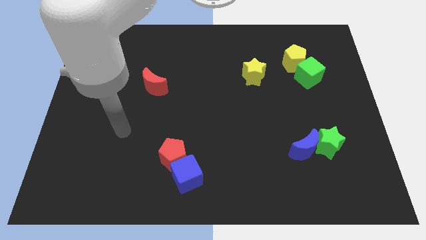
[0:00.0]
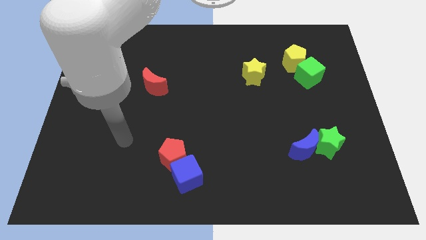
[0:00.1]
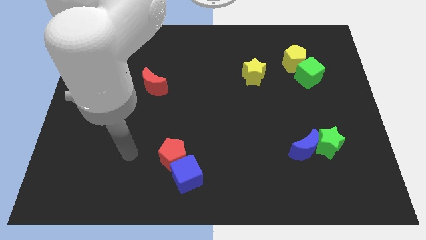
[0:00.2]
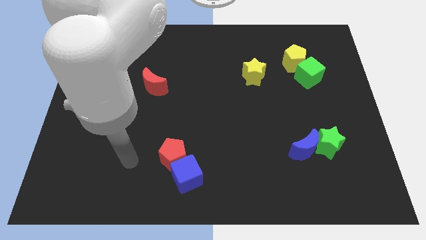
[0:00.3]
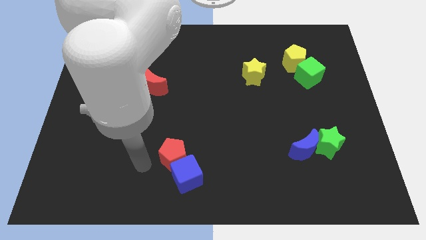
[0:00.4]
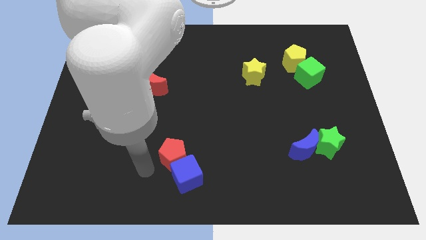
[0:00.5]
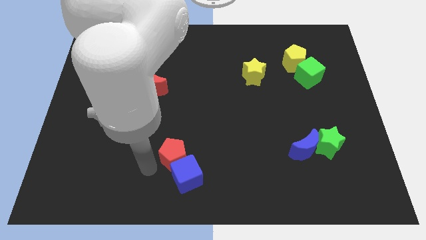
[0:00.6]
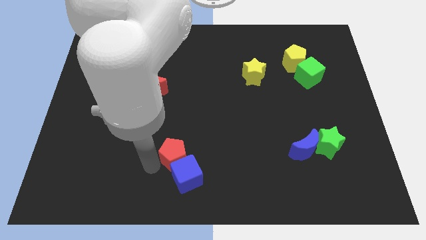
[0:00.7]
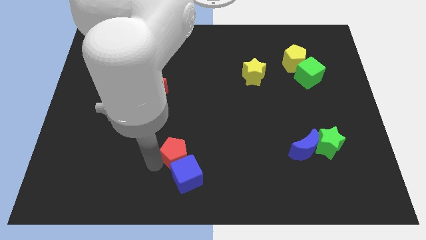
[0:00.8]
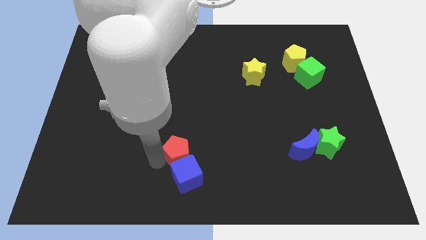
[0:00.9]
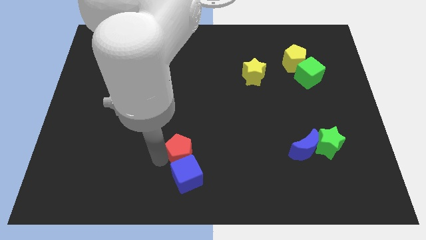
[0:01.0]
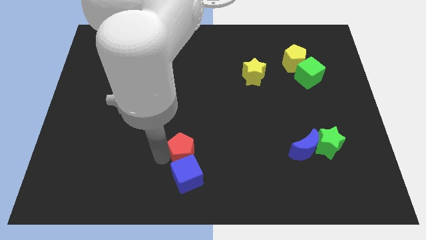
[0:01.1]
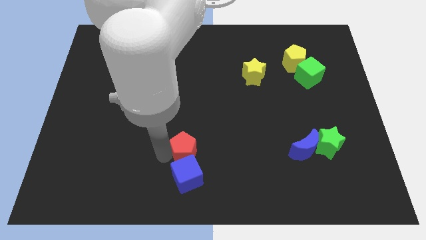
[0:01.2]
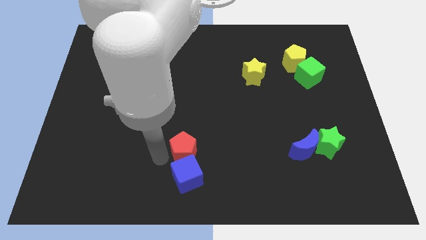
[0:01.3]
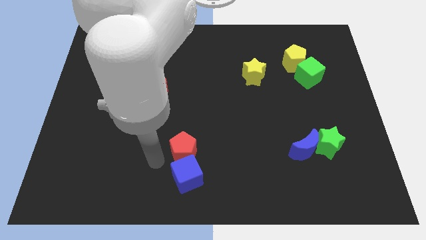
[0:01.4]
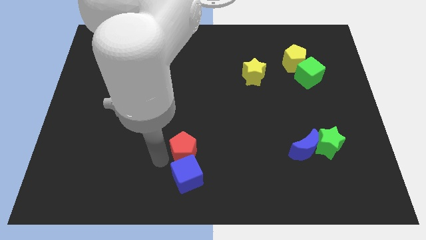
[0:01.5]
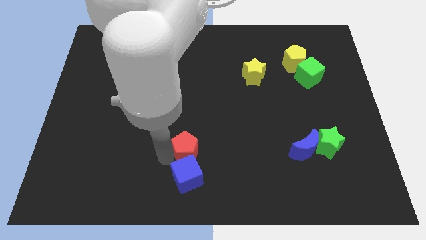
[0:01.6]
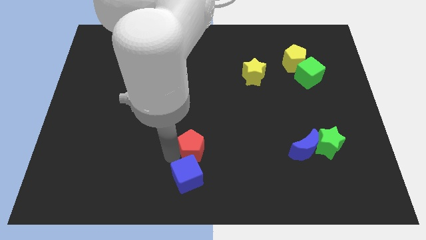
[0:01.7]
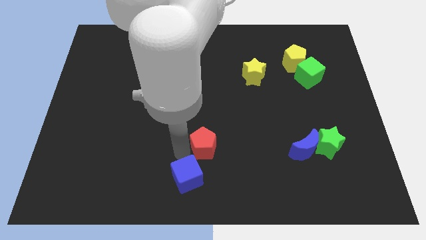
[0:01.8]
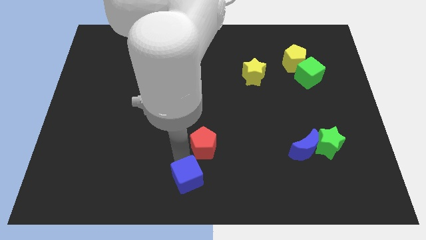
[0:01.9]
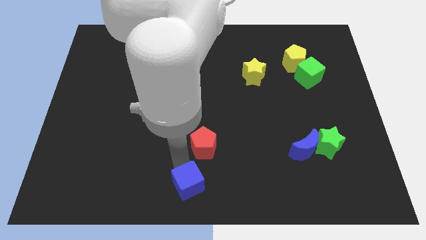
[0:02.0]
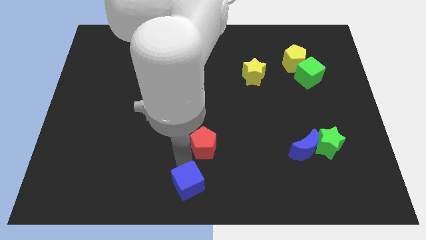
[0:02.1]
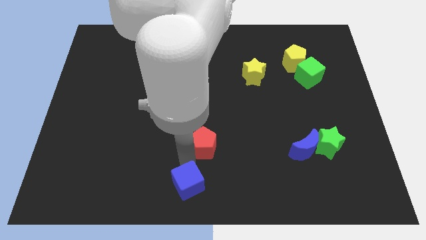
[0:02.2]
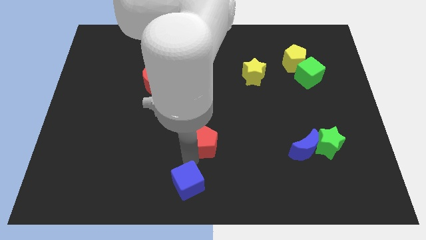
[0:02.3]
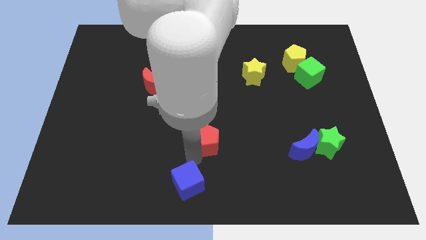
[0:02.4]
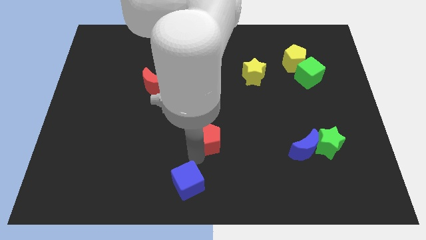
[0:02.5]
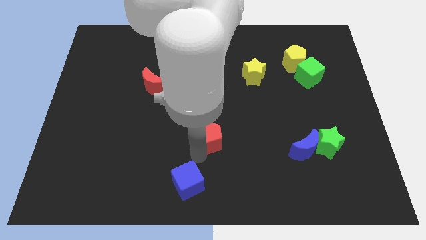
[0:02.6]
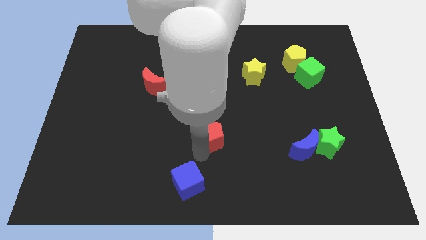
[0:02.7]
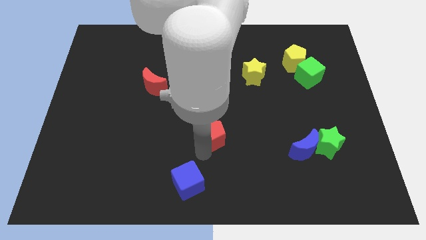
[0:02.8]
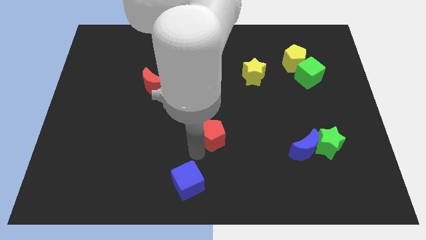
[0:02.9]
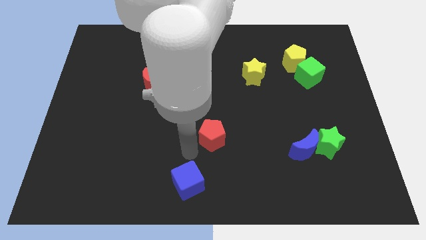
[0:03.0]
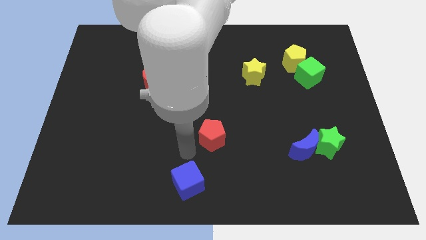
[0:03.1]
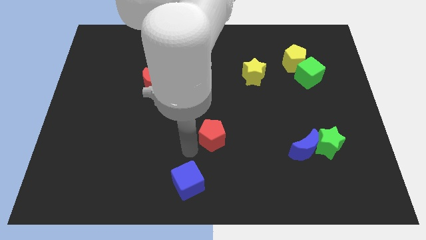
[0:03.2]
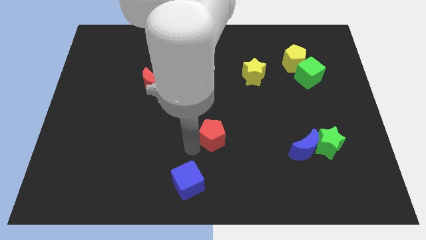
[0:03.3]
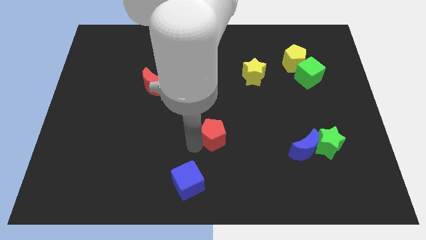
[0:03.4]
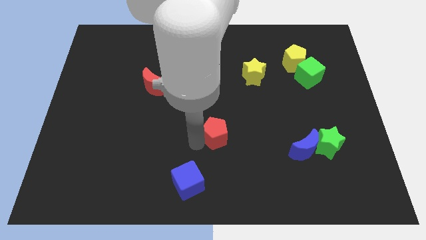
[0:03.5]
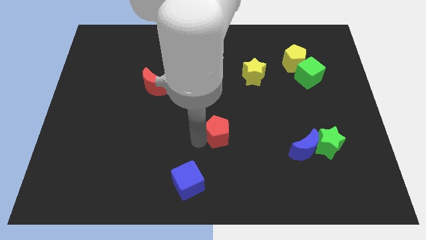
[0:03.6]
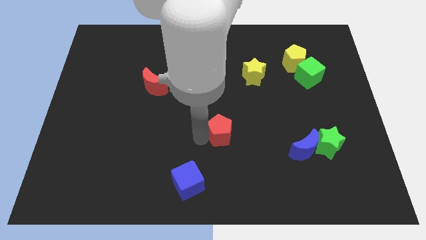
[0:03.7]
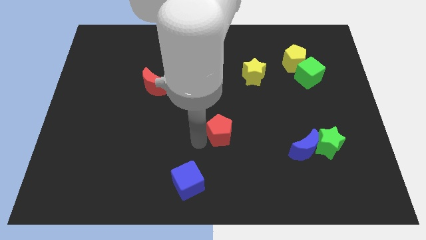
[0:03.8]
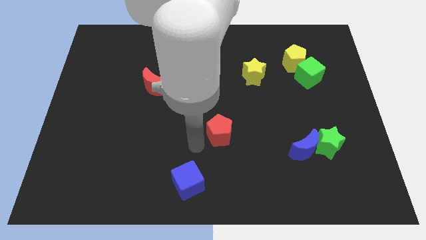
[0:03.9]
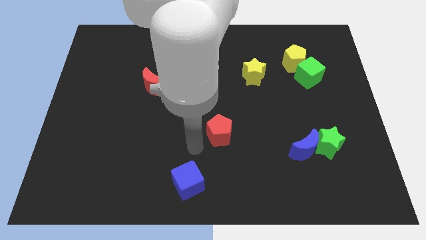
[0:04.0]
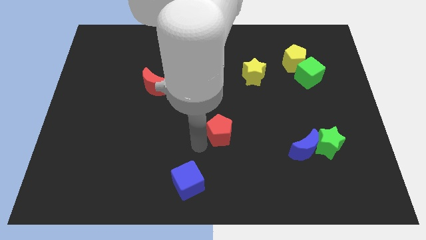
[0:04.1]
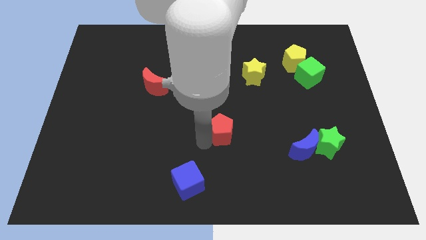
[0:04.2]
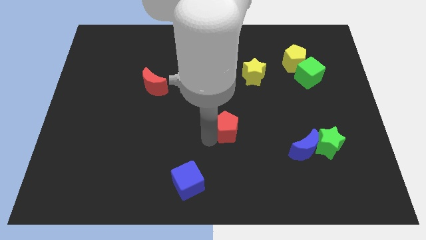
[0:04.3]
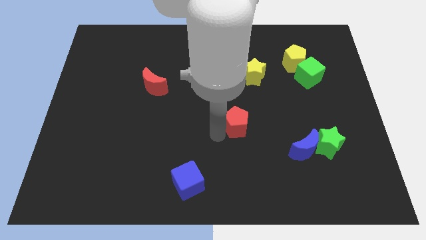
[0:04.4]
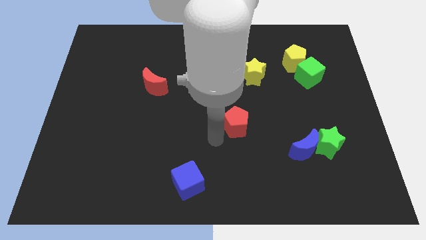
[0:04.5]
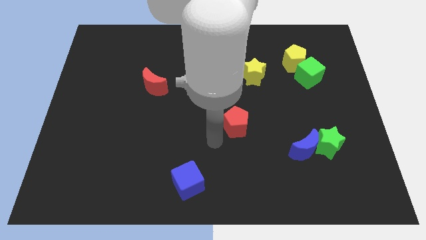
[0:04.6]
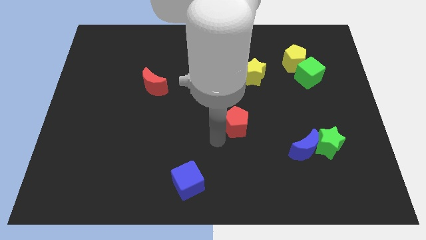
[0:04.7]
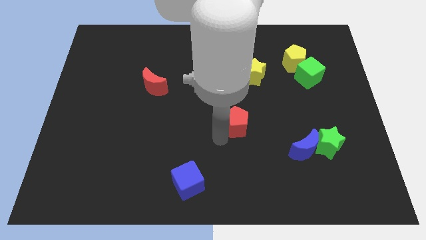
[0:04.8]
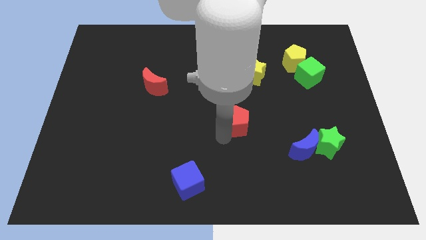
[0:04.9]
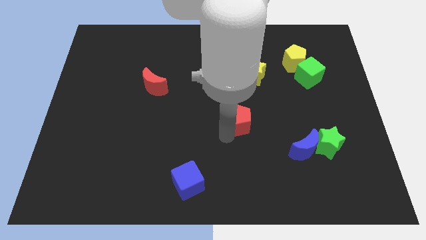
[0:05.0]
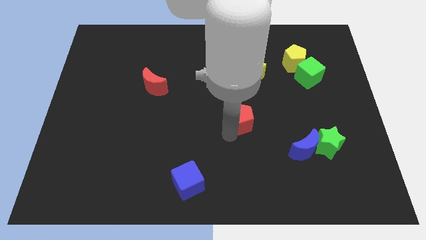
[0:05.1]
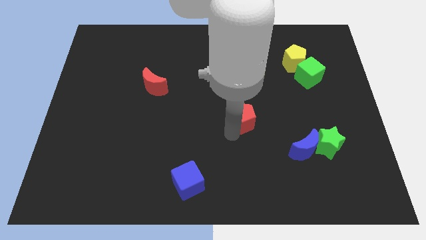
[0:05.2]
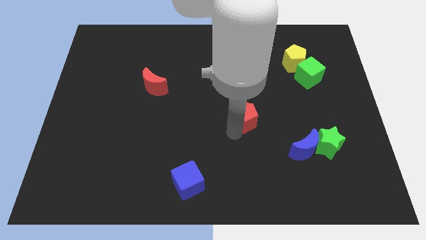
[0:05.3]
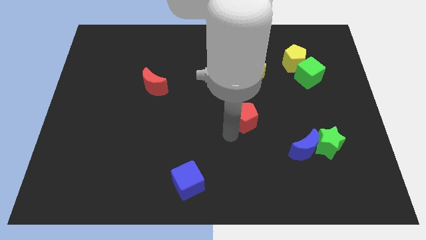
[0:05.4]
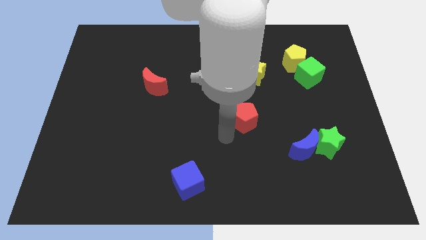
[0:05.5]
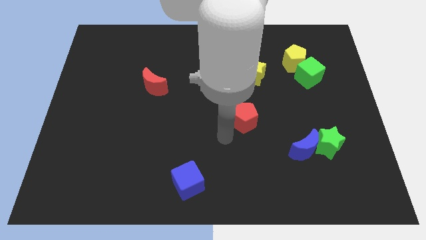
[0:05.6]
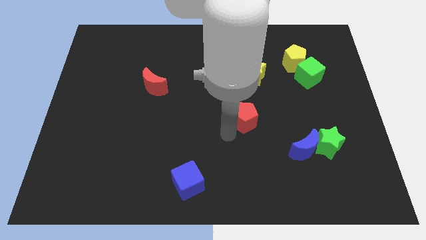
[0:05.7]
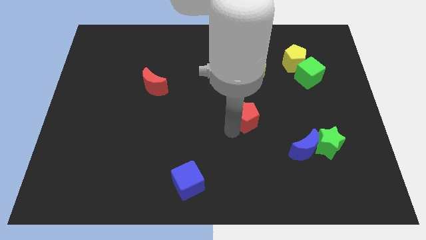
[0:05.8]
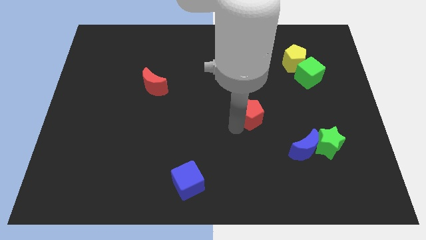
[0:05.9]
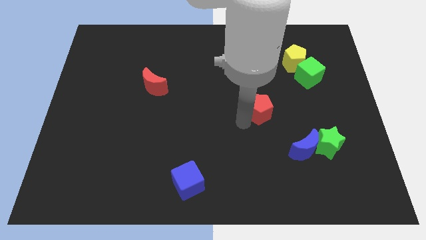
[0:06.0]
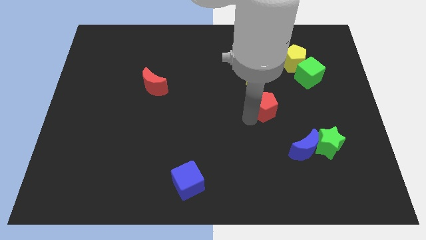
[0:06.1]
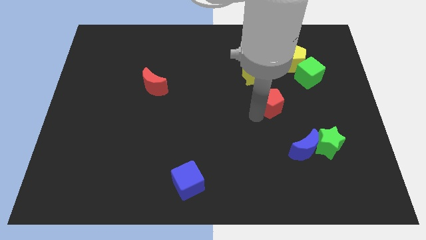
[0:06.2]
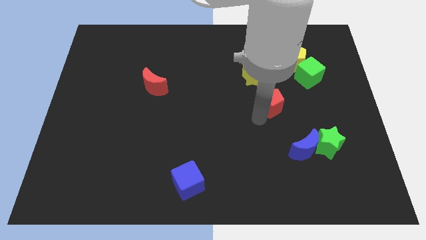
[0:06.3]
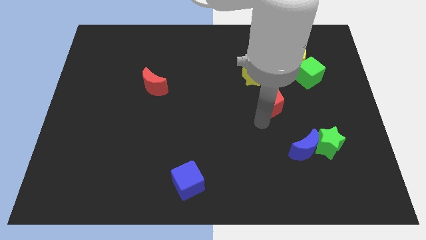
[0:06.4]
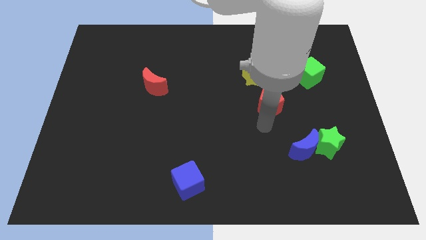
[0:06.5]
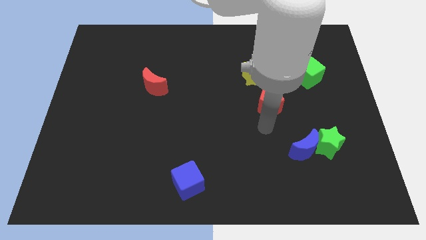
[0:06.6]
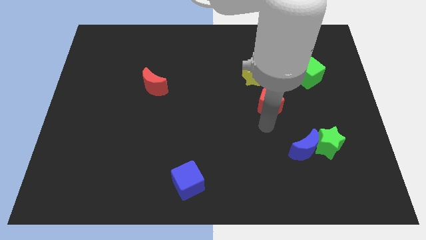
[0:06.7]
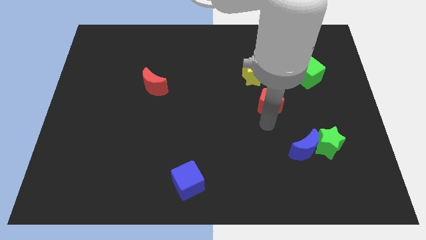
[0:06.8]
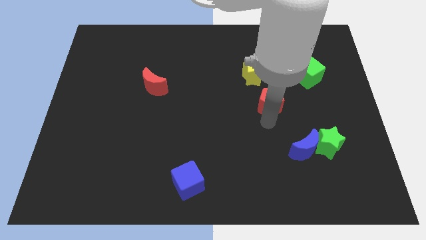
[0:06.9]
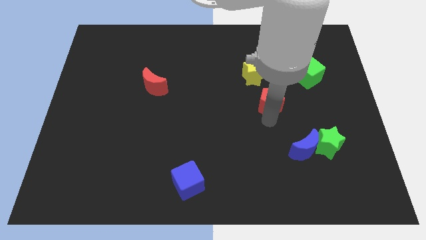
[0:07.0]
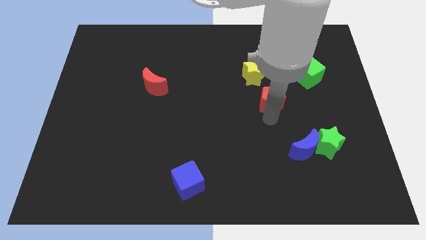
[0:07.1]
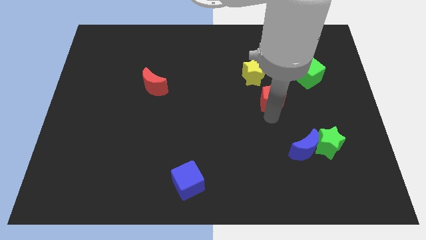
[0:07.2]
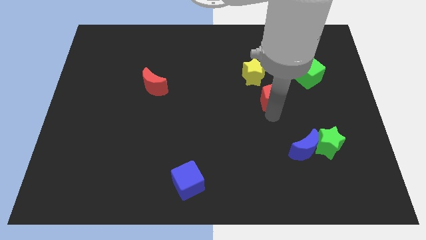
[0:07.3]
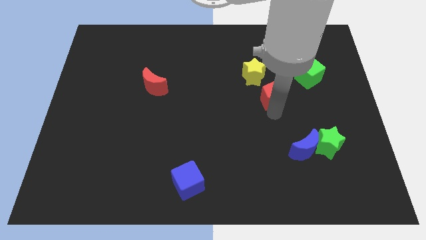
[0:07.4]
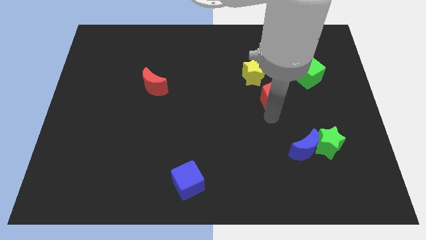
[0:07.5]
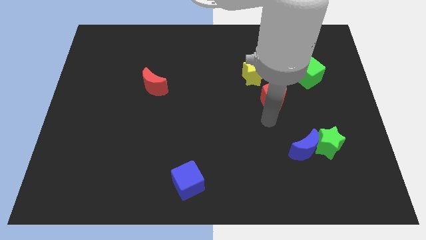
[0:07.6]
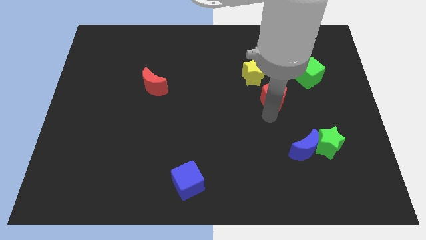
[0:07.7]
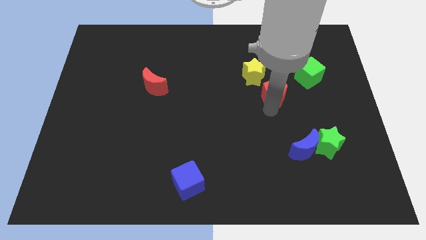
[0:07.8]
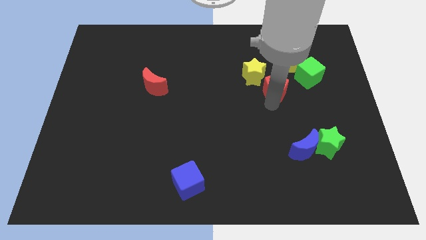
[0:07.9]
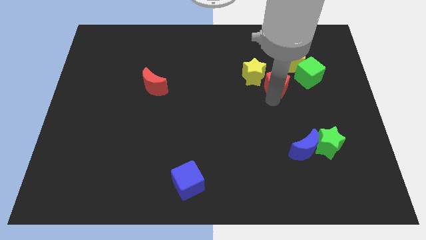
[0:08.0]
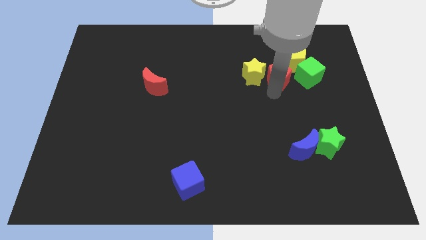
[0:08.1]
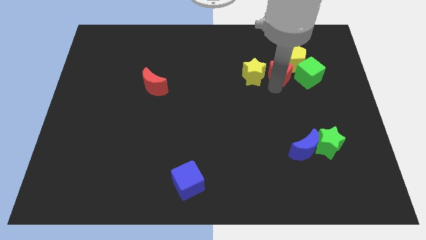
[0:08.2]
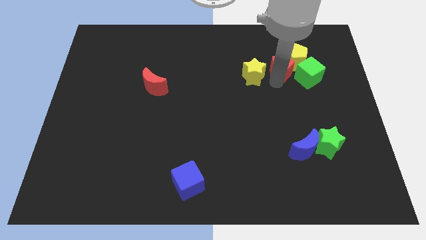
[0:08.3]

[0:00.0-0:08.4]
push the red pentagon diagonally up and to the left of the green cube
